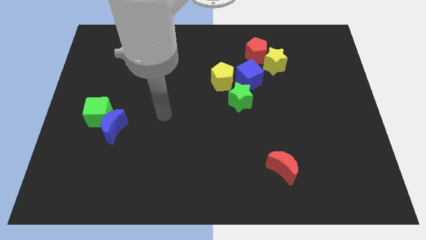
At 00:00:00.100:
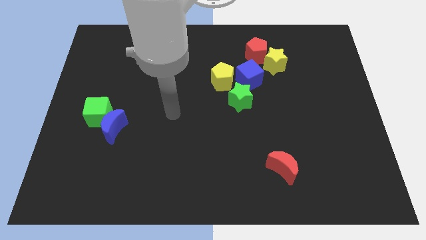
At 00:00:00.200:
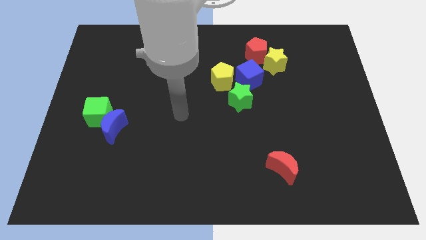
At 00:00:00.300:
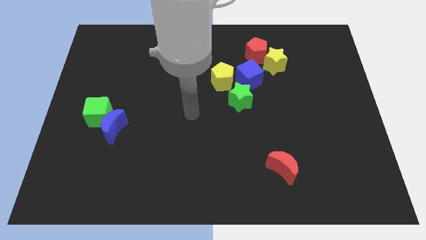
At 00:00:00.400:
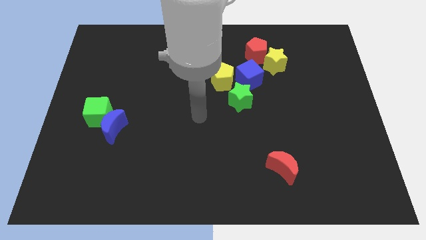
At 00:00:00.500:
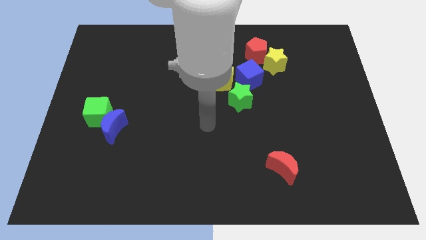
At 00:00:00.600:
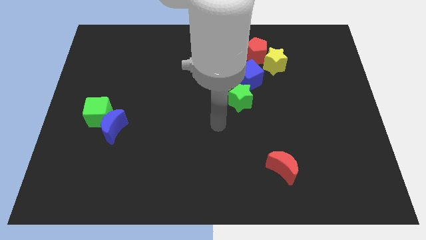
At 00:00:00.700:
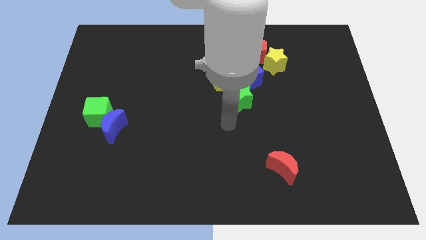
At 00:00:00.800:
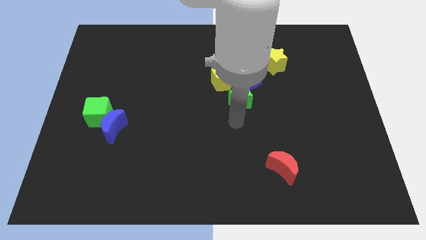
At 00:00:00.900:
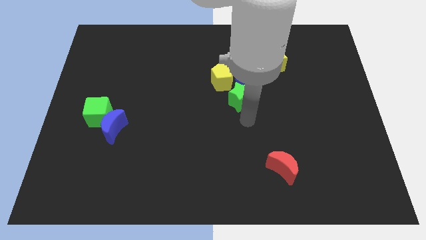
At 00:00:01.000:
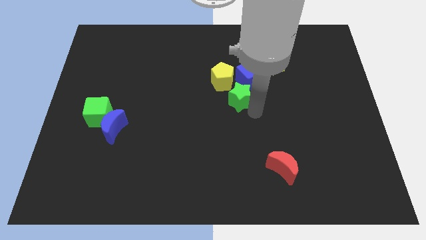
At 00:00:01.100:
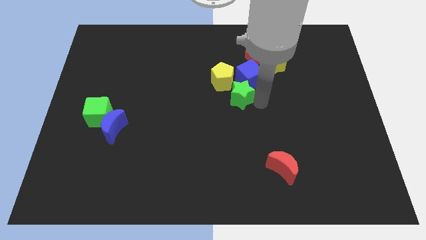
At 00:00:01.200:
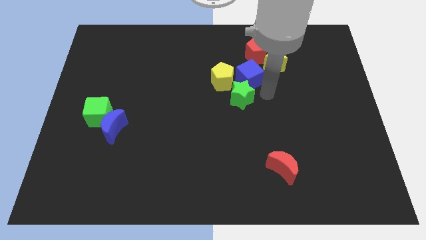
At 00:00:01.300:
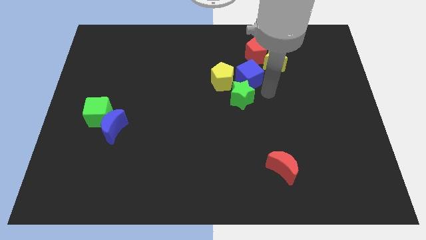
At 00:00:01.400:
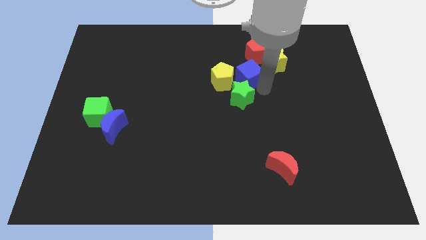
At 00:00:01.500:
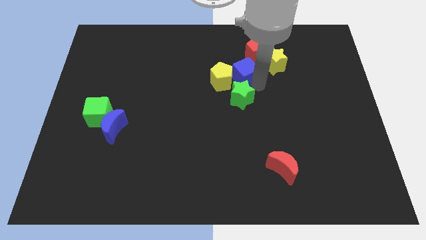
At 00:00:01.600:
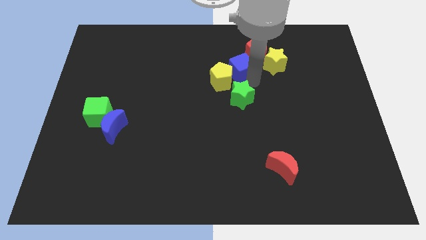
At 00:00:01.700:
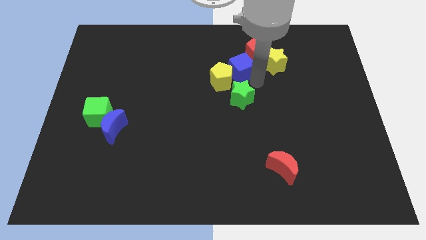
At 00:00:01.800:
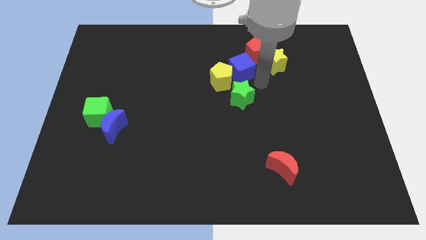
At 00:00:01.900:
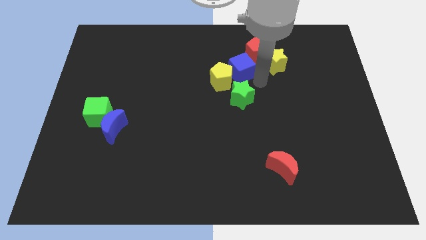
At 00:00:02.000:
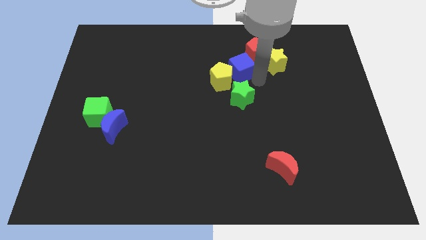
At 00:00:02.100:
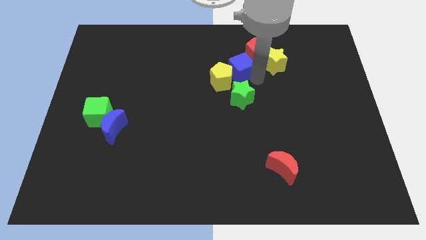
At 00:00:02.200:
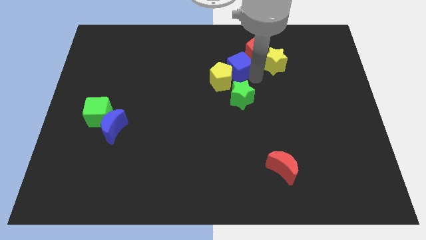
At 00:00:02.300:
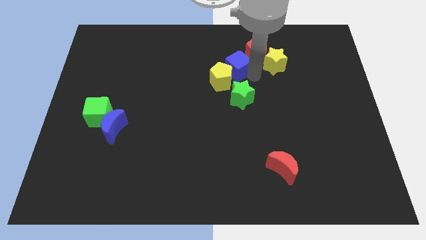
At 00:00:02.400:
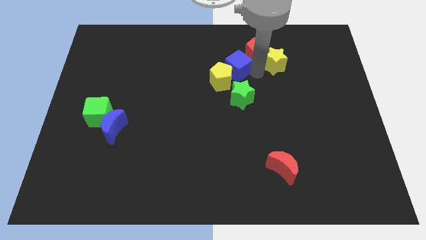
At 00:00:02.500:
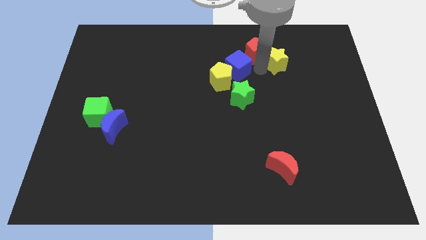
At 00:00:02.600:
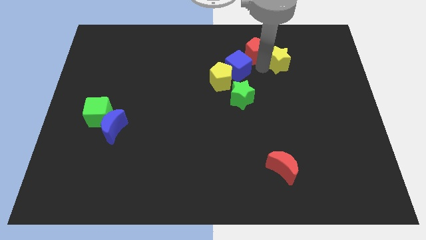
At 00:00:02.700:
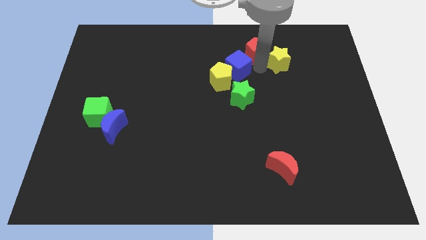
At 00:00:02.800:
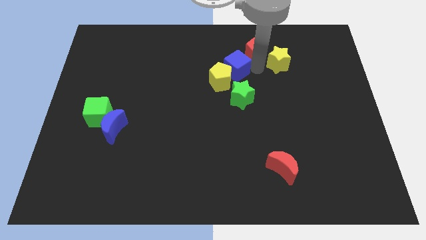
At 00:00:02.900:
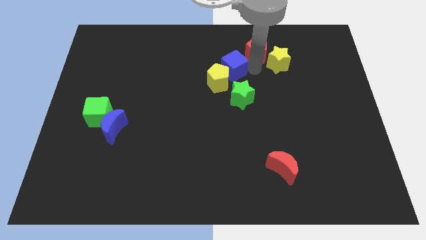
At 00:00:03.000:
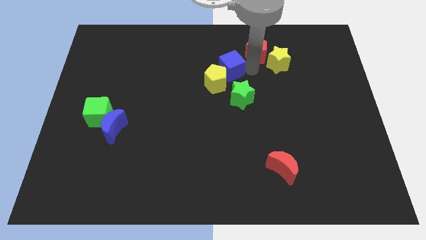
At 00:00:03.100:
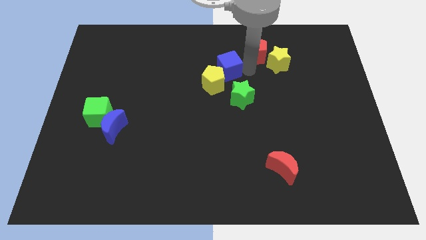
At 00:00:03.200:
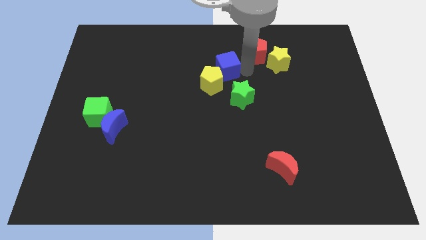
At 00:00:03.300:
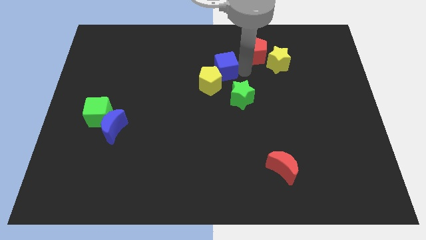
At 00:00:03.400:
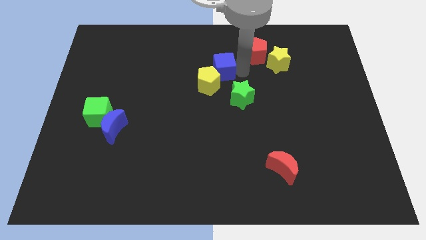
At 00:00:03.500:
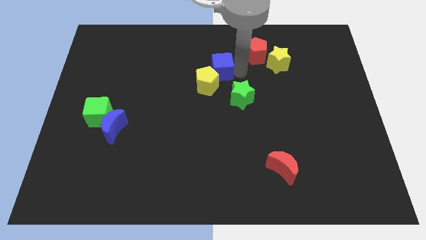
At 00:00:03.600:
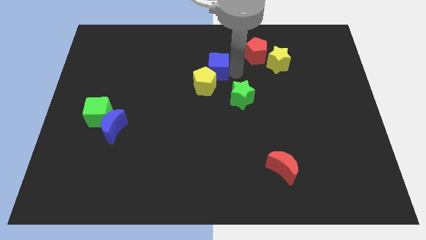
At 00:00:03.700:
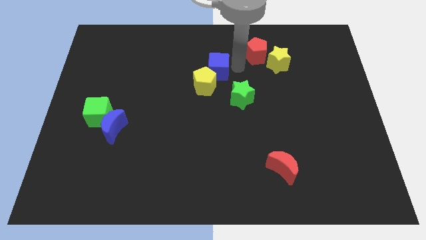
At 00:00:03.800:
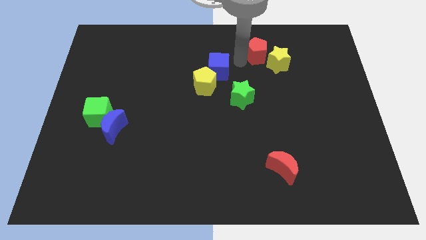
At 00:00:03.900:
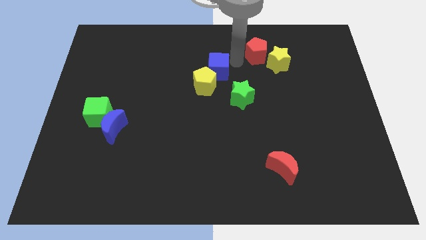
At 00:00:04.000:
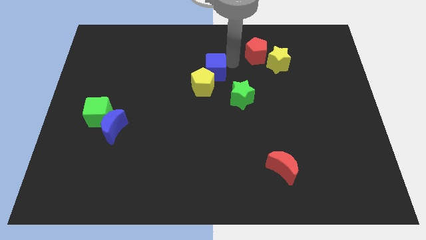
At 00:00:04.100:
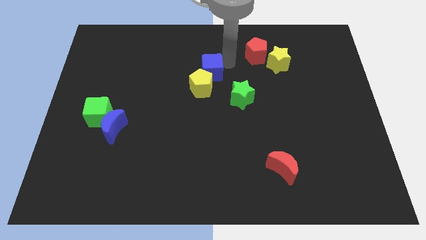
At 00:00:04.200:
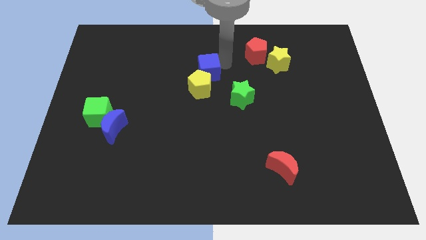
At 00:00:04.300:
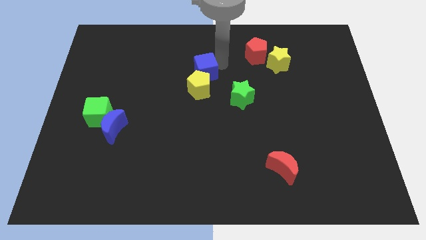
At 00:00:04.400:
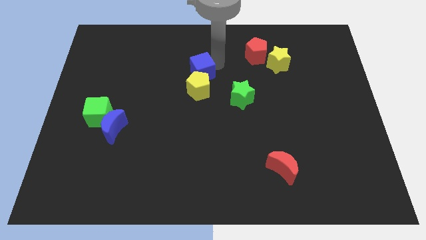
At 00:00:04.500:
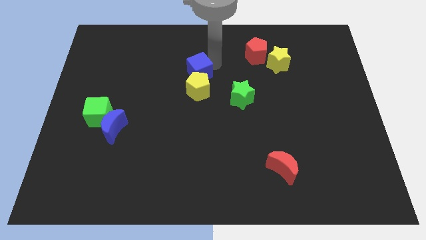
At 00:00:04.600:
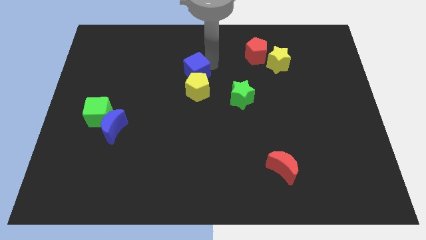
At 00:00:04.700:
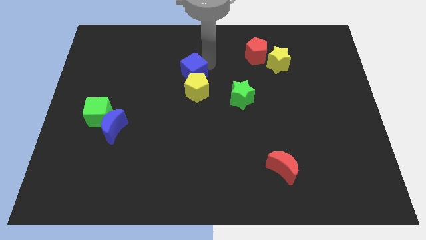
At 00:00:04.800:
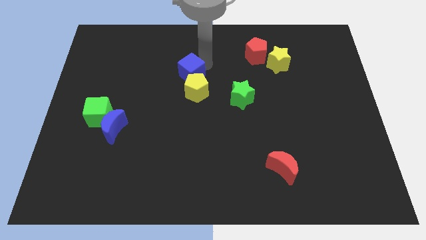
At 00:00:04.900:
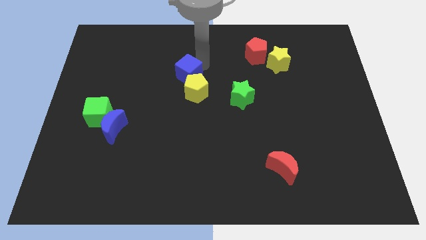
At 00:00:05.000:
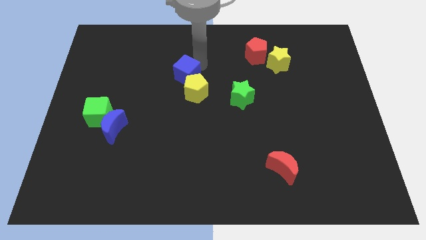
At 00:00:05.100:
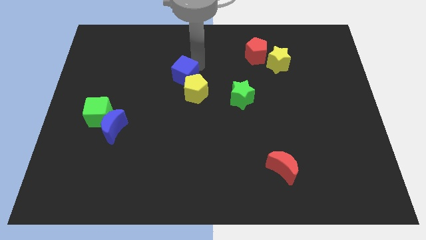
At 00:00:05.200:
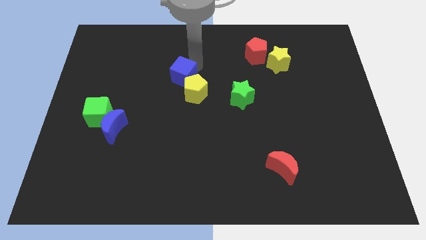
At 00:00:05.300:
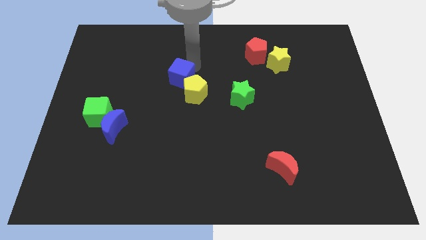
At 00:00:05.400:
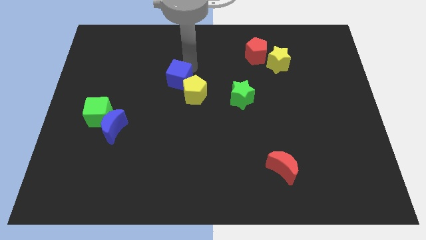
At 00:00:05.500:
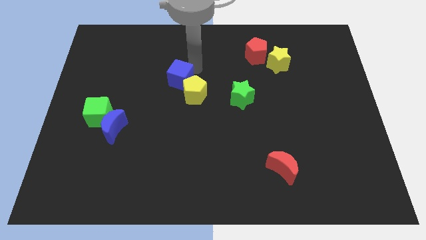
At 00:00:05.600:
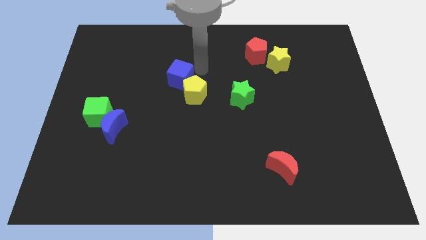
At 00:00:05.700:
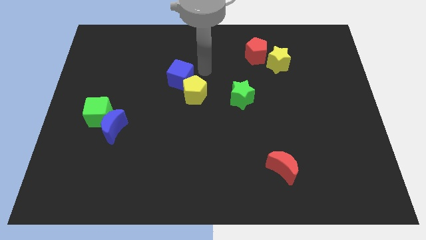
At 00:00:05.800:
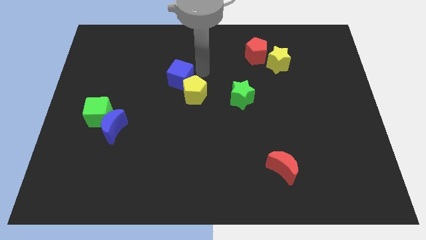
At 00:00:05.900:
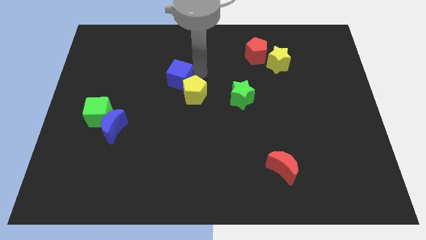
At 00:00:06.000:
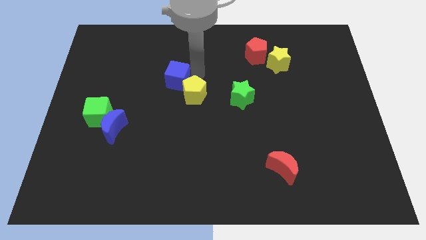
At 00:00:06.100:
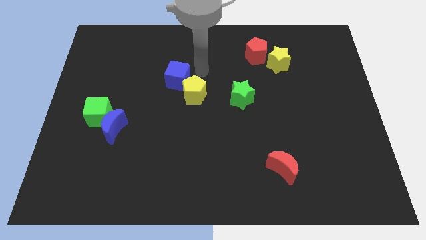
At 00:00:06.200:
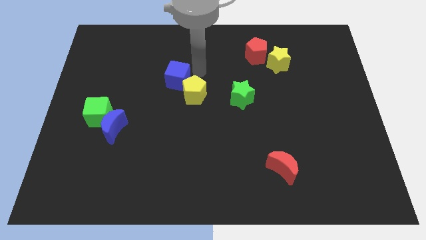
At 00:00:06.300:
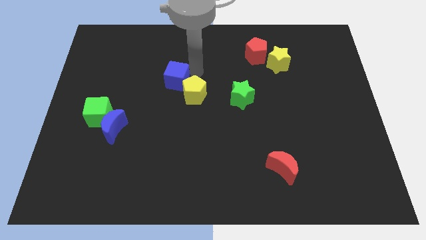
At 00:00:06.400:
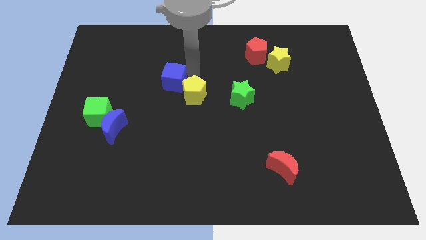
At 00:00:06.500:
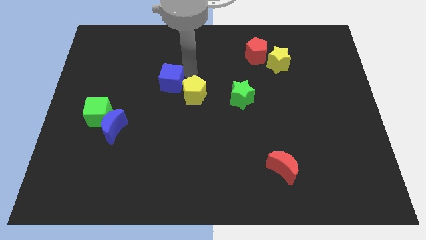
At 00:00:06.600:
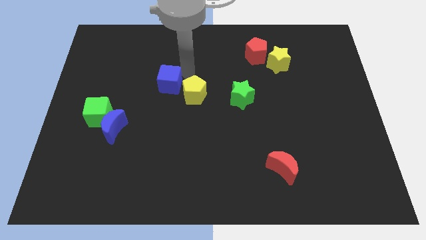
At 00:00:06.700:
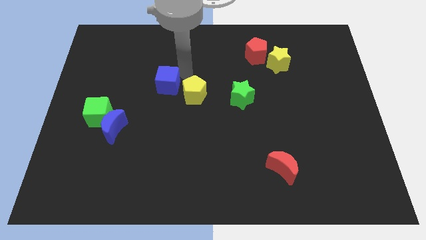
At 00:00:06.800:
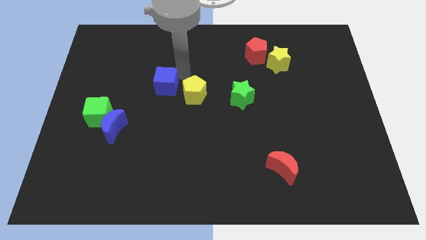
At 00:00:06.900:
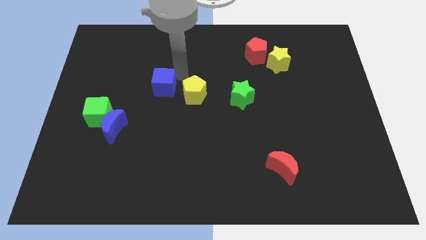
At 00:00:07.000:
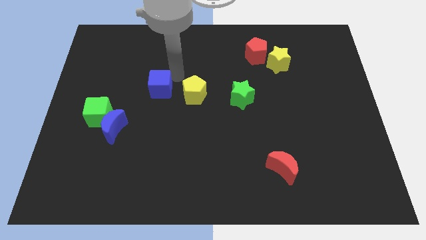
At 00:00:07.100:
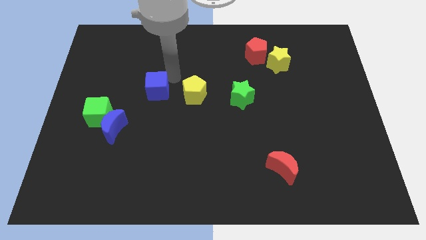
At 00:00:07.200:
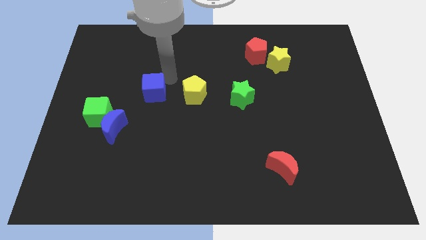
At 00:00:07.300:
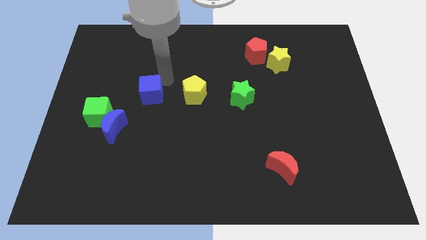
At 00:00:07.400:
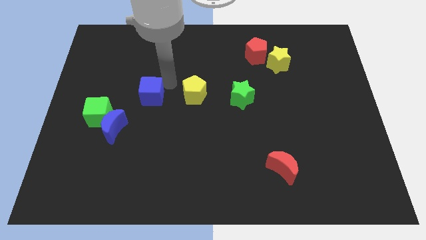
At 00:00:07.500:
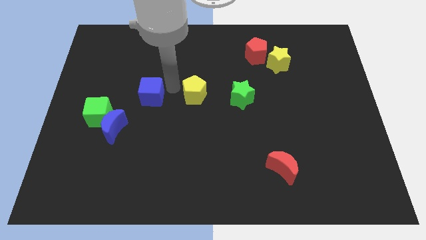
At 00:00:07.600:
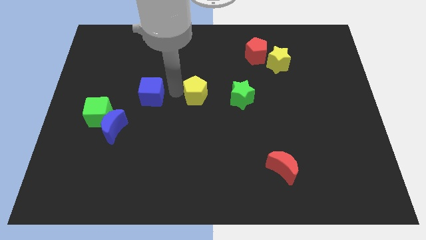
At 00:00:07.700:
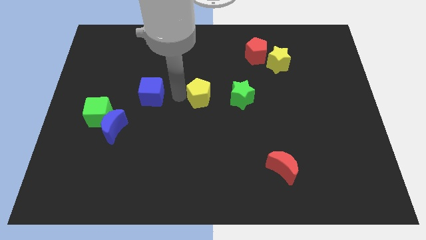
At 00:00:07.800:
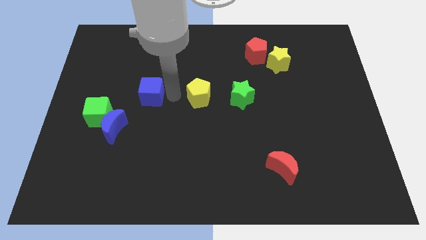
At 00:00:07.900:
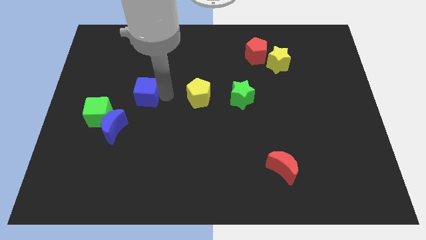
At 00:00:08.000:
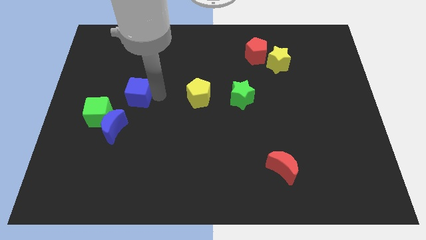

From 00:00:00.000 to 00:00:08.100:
move the blue cube to the top side of the blue moon
